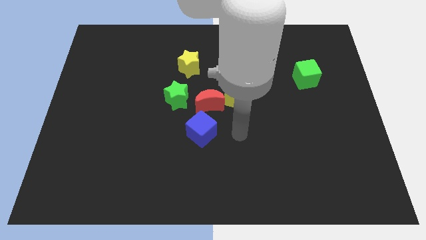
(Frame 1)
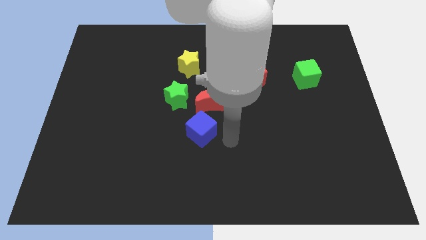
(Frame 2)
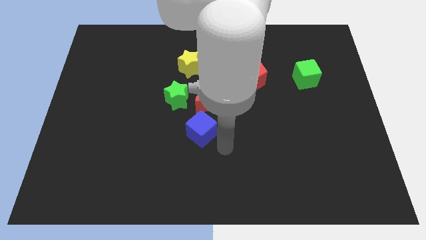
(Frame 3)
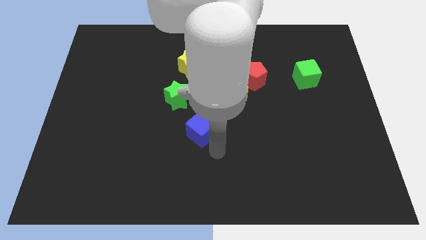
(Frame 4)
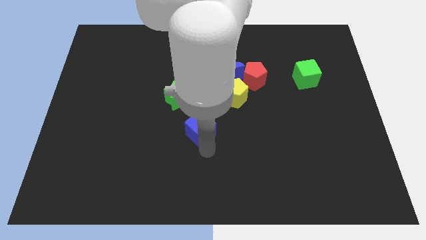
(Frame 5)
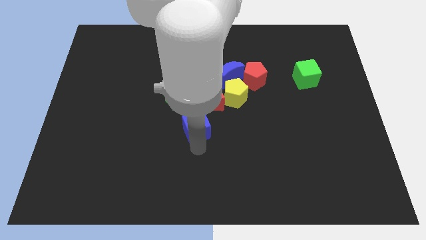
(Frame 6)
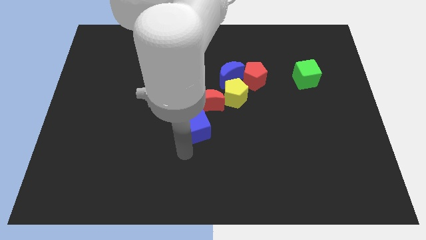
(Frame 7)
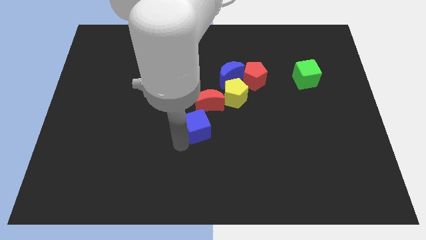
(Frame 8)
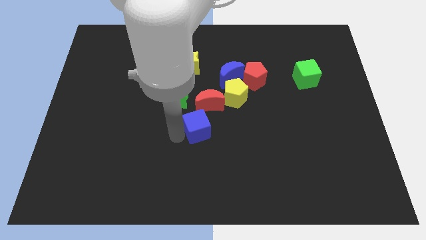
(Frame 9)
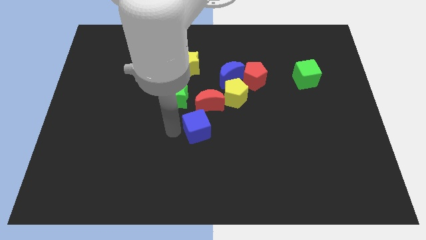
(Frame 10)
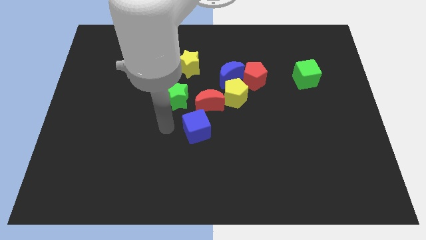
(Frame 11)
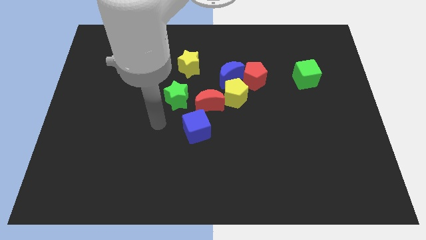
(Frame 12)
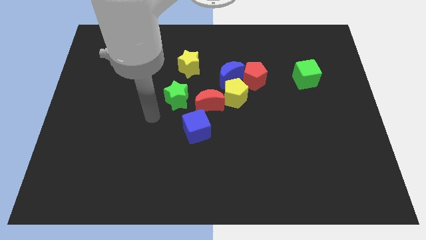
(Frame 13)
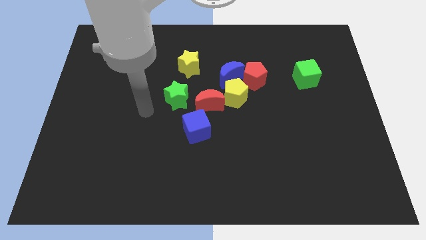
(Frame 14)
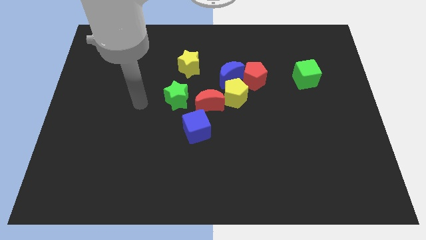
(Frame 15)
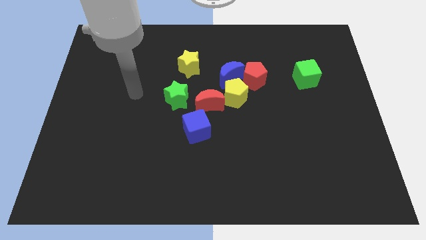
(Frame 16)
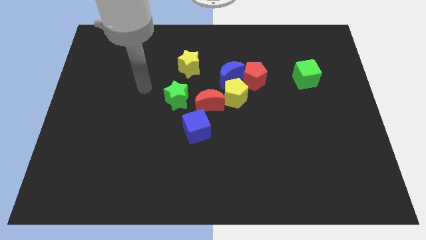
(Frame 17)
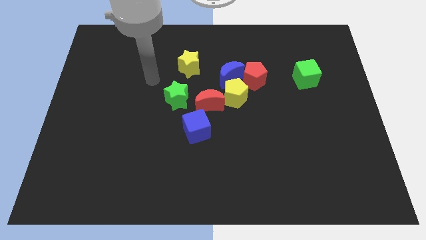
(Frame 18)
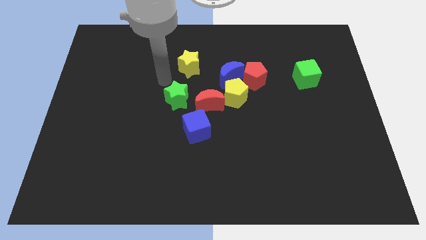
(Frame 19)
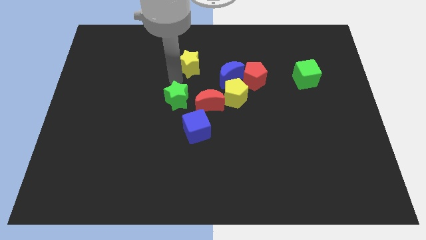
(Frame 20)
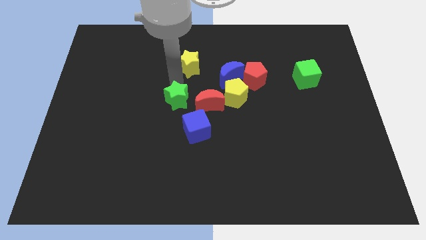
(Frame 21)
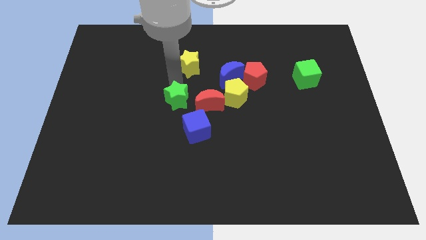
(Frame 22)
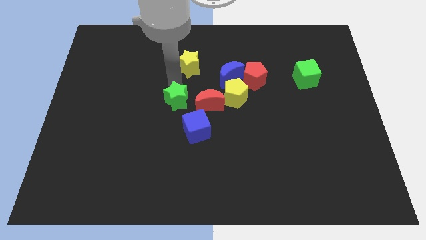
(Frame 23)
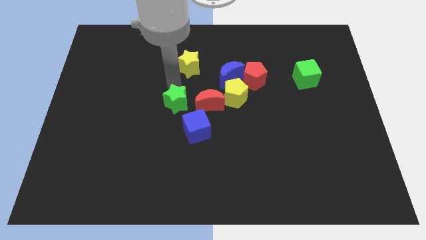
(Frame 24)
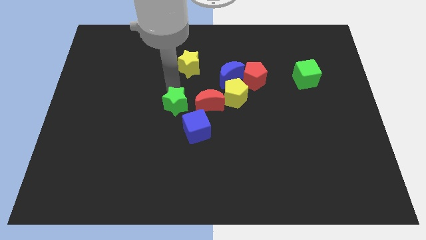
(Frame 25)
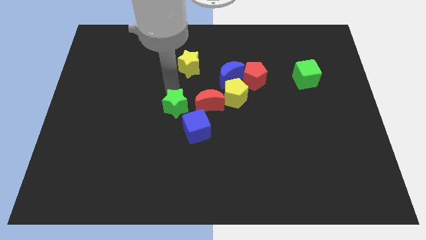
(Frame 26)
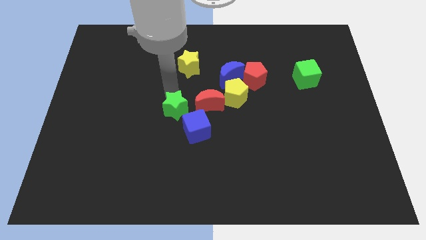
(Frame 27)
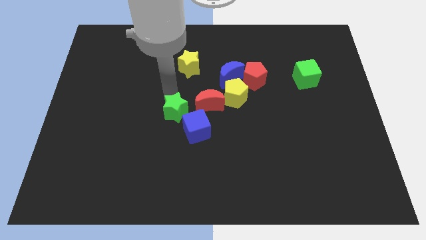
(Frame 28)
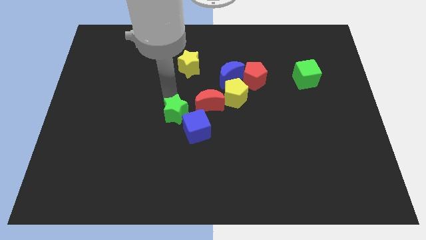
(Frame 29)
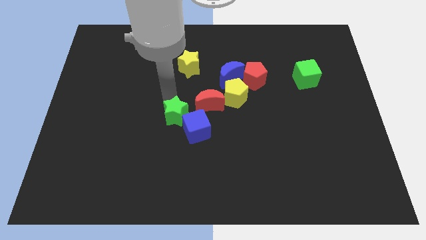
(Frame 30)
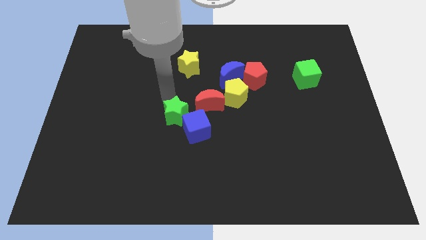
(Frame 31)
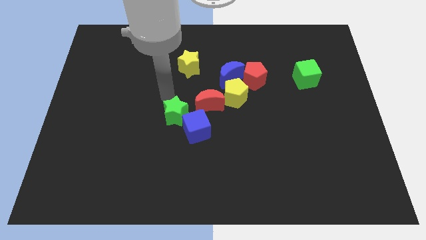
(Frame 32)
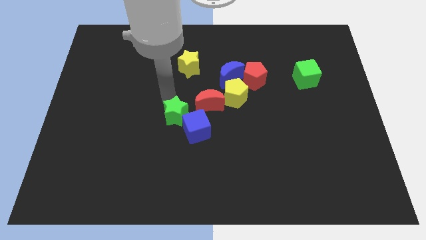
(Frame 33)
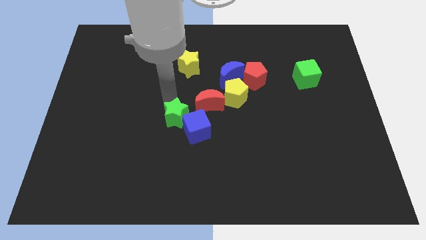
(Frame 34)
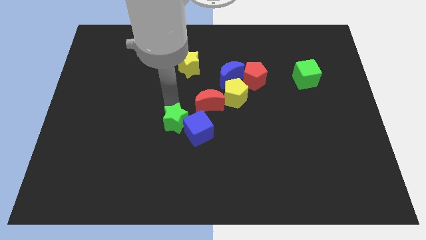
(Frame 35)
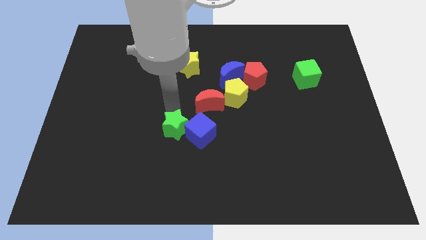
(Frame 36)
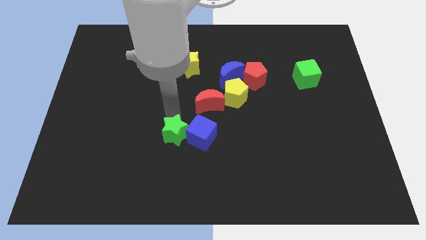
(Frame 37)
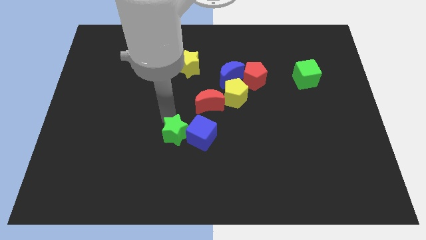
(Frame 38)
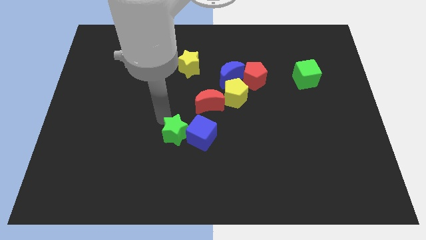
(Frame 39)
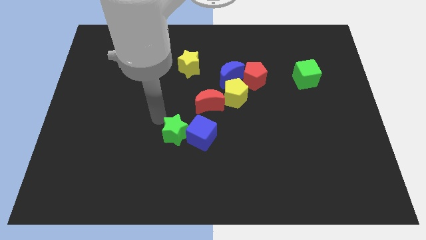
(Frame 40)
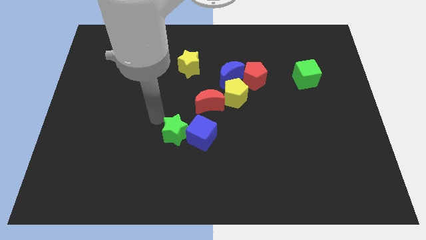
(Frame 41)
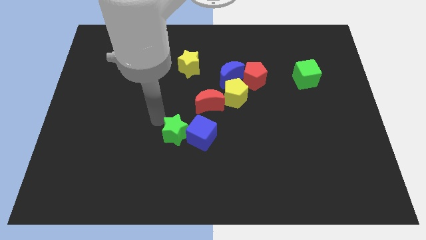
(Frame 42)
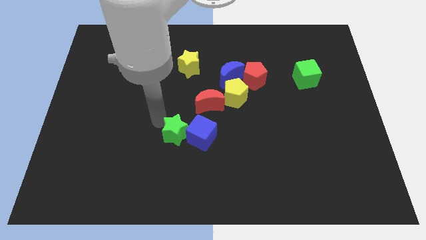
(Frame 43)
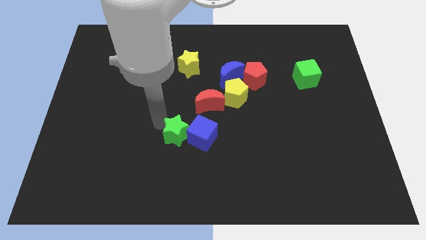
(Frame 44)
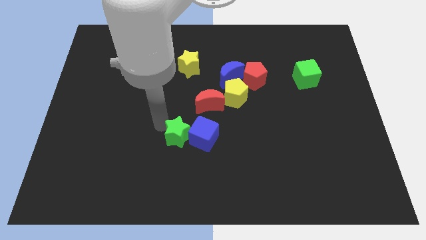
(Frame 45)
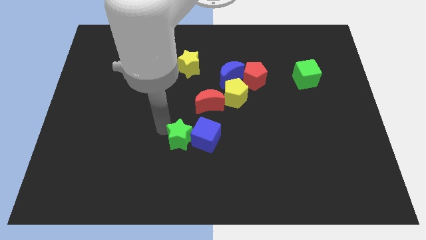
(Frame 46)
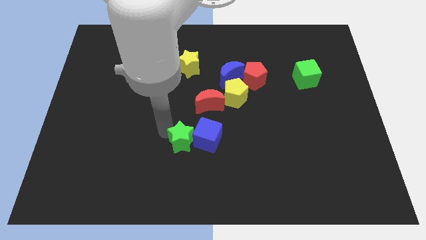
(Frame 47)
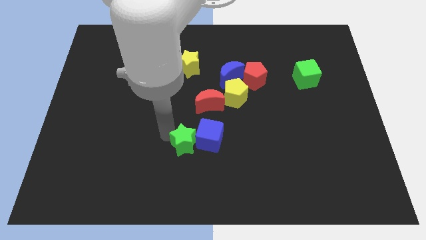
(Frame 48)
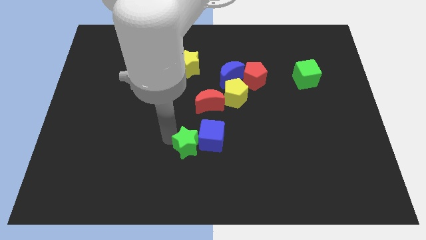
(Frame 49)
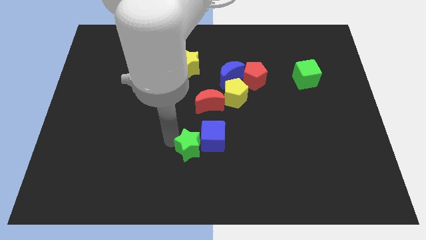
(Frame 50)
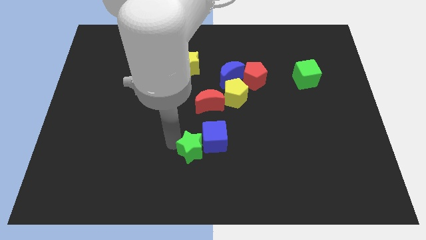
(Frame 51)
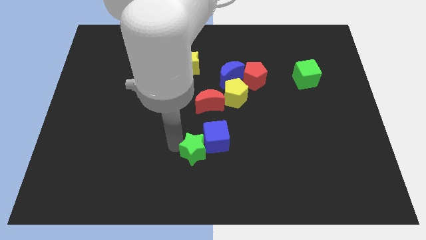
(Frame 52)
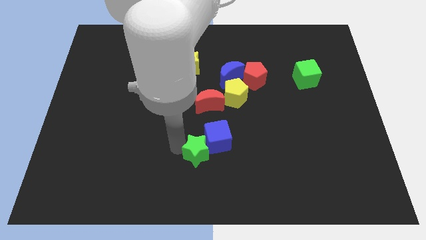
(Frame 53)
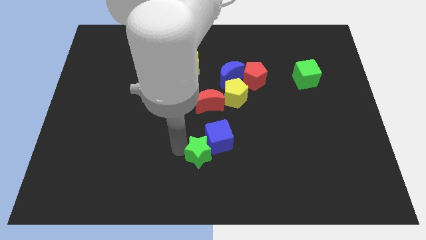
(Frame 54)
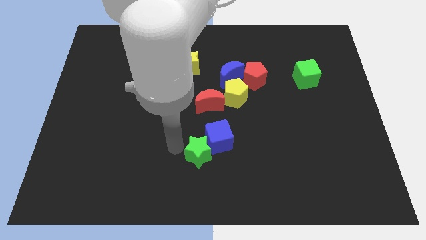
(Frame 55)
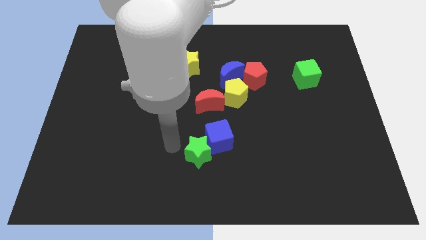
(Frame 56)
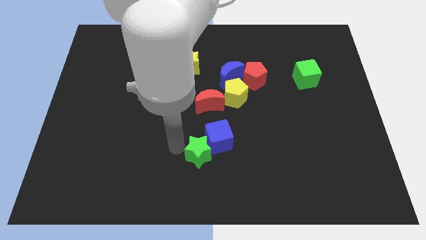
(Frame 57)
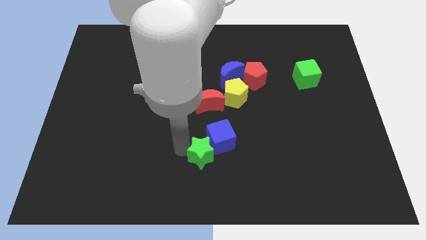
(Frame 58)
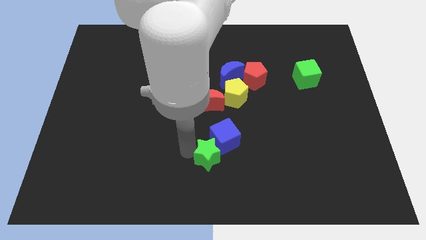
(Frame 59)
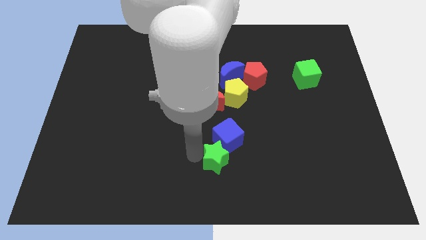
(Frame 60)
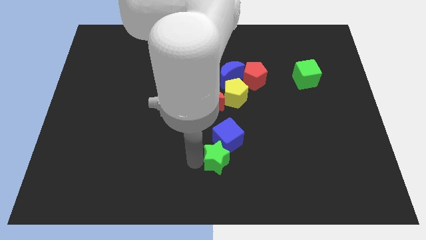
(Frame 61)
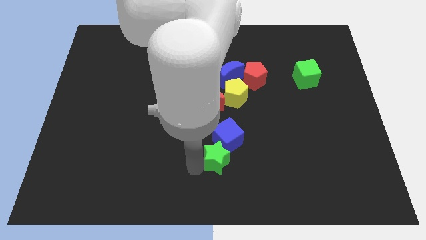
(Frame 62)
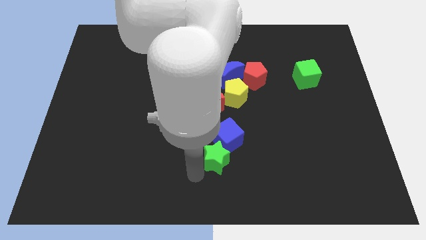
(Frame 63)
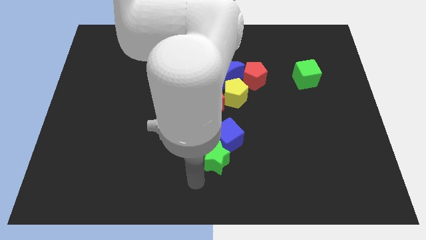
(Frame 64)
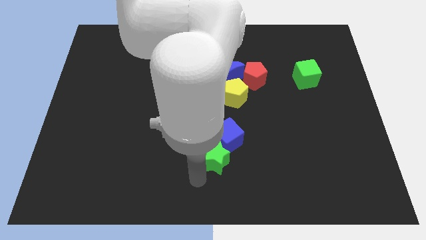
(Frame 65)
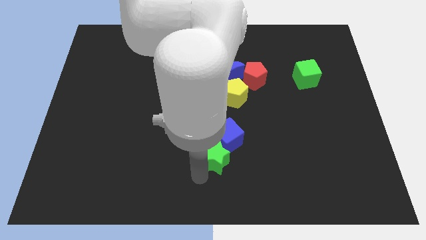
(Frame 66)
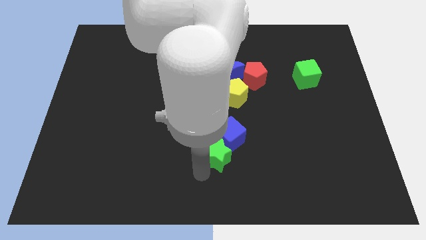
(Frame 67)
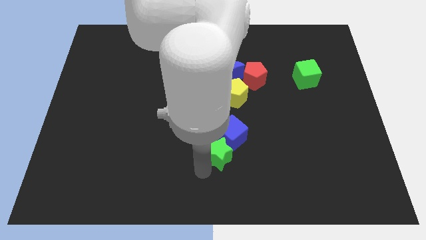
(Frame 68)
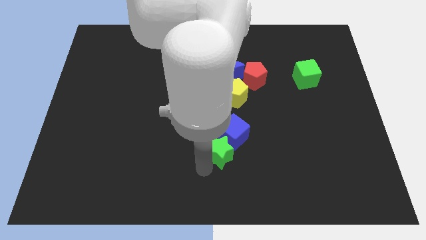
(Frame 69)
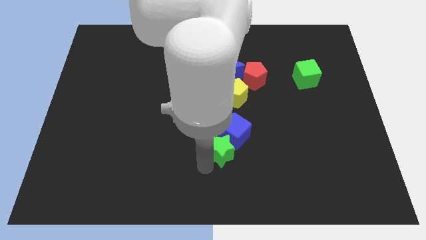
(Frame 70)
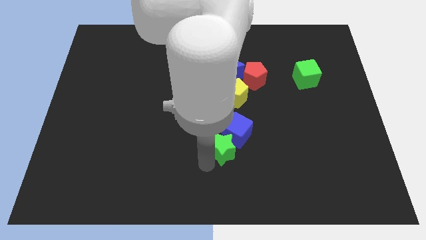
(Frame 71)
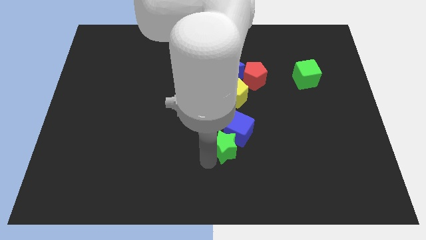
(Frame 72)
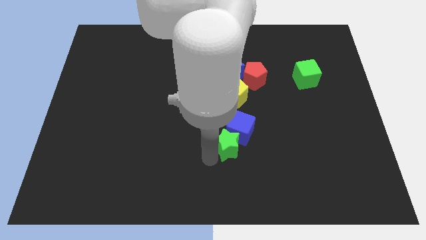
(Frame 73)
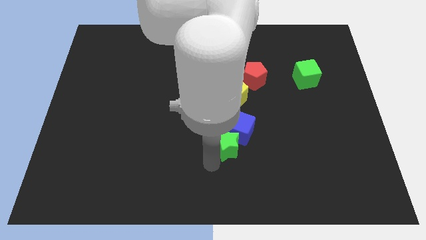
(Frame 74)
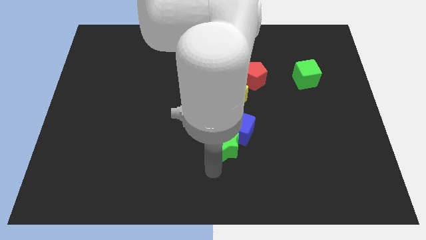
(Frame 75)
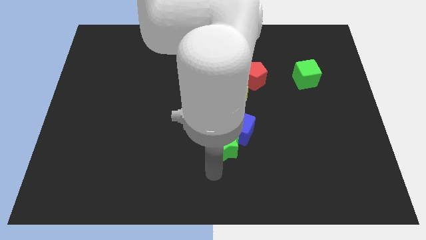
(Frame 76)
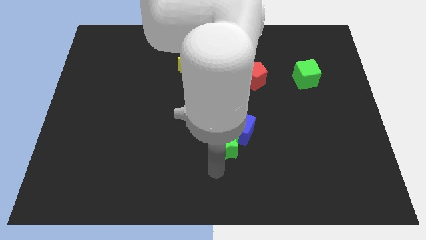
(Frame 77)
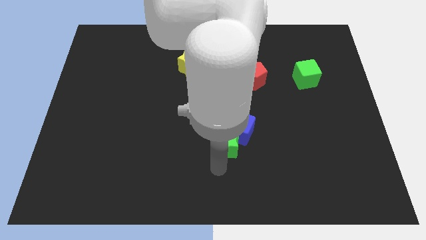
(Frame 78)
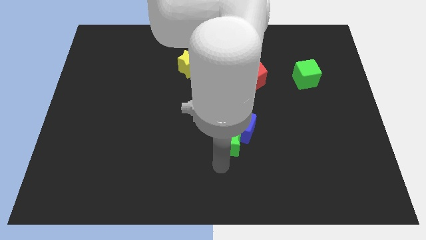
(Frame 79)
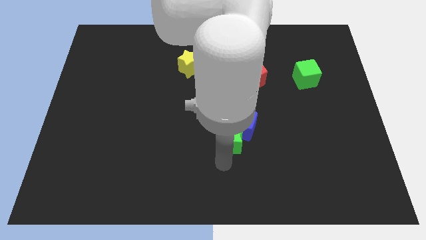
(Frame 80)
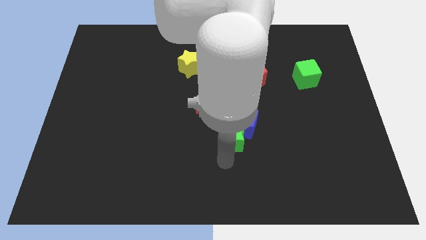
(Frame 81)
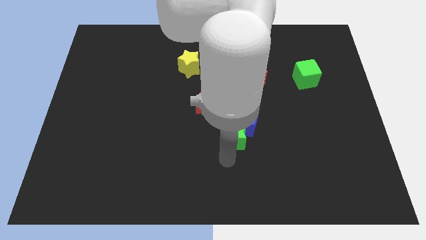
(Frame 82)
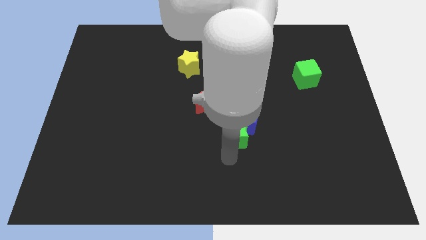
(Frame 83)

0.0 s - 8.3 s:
slightly move the green star to the right
